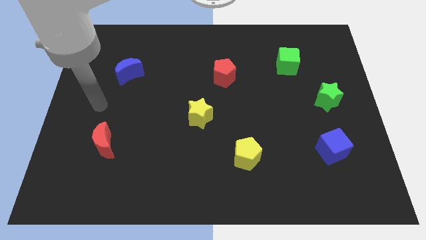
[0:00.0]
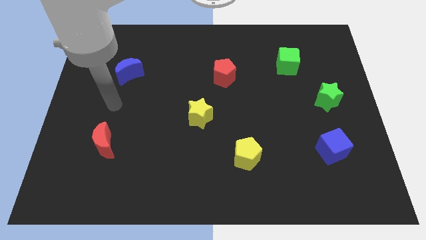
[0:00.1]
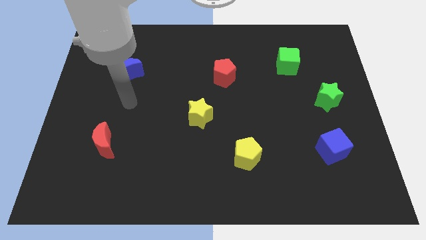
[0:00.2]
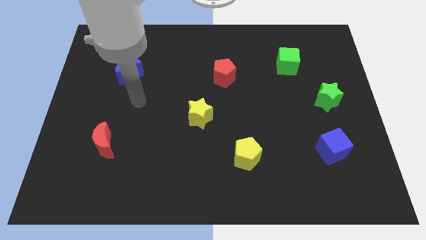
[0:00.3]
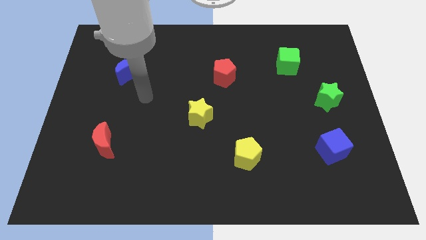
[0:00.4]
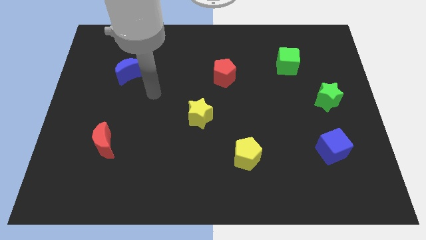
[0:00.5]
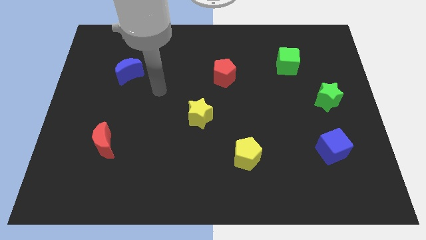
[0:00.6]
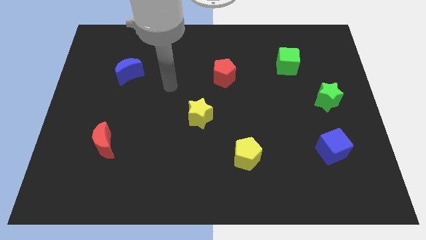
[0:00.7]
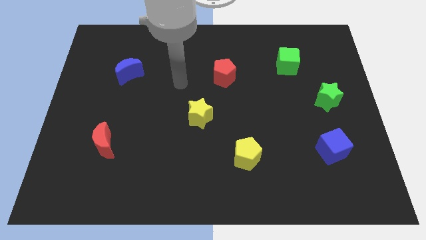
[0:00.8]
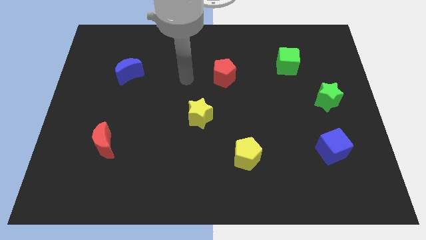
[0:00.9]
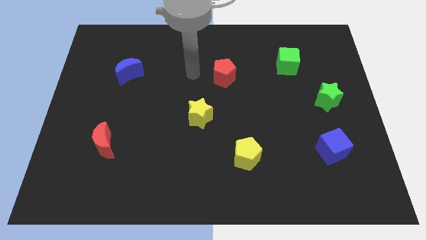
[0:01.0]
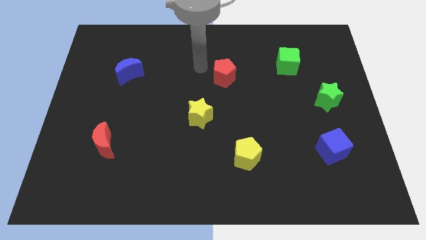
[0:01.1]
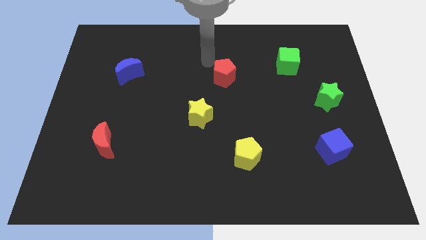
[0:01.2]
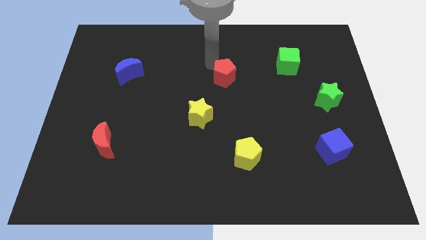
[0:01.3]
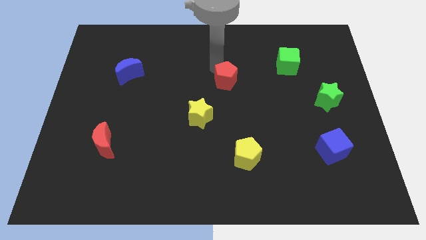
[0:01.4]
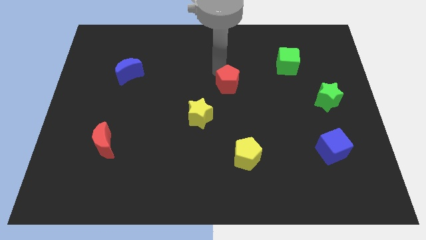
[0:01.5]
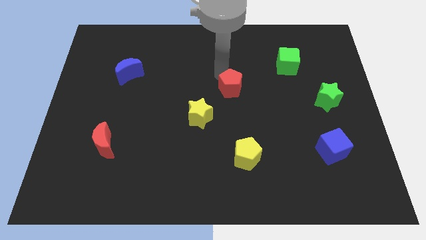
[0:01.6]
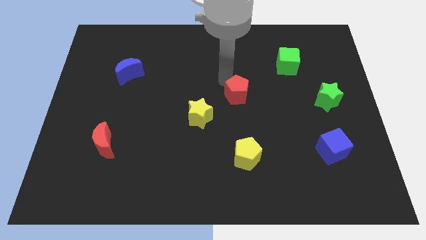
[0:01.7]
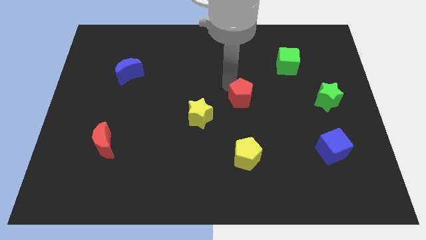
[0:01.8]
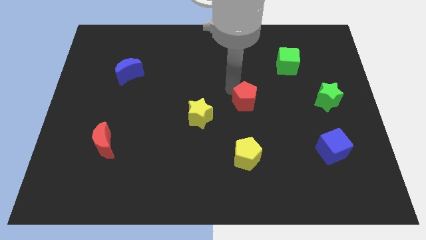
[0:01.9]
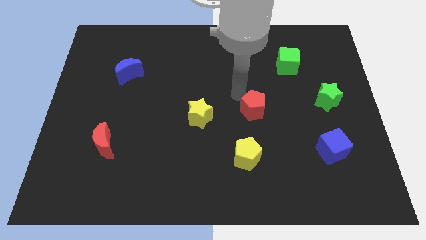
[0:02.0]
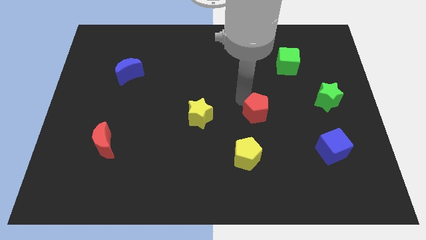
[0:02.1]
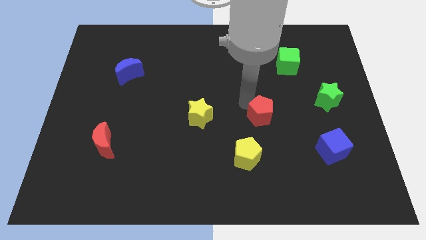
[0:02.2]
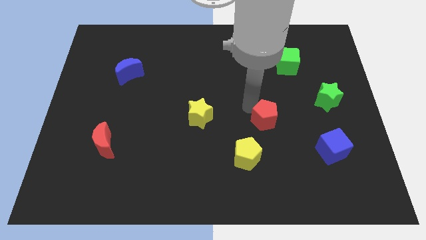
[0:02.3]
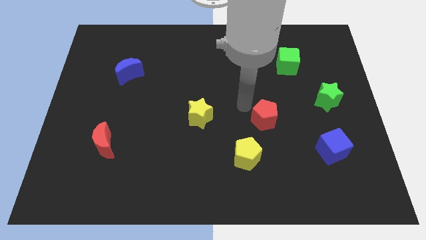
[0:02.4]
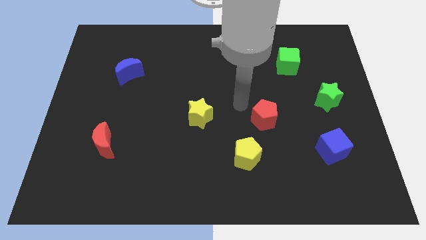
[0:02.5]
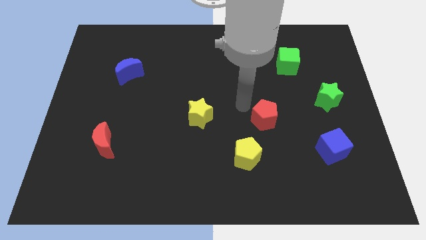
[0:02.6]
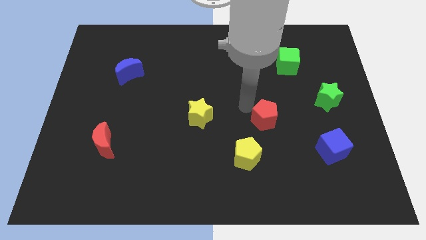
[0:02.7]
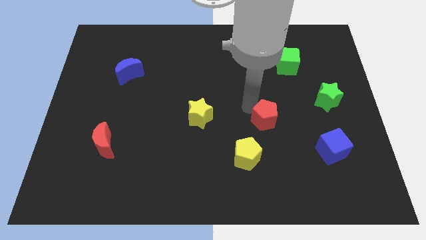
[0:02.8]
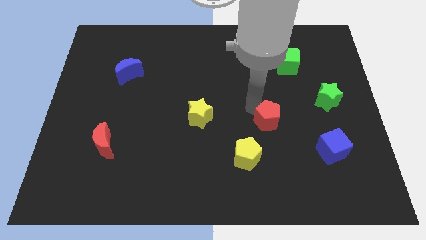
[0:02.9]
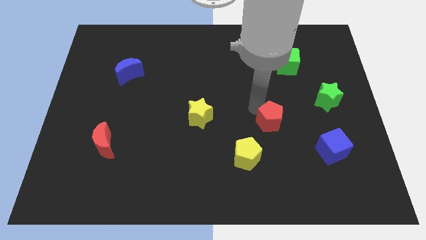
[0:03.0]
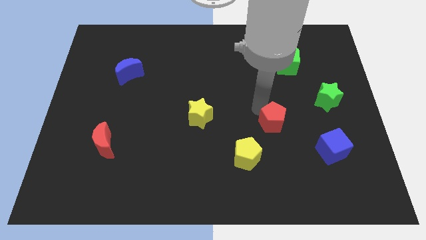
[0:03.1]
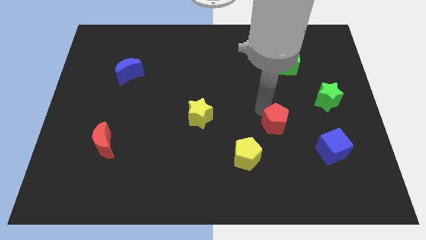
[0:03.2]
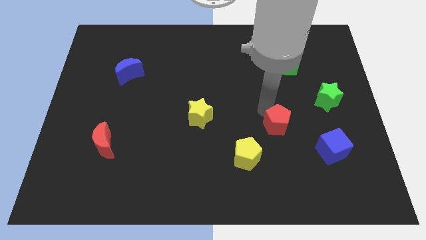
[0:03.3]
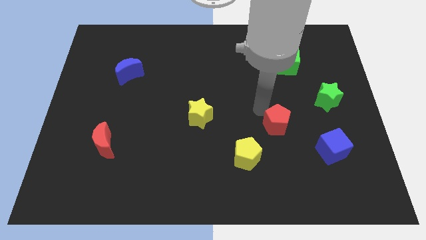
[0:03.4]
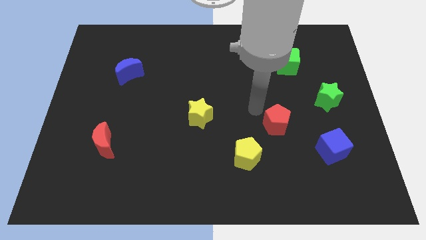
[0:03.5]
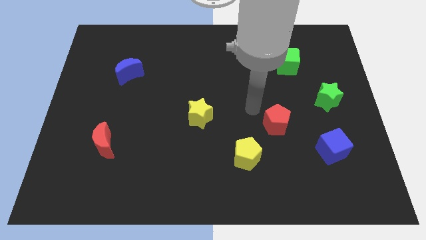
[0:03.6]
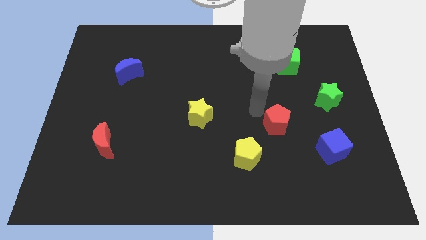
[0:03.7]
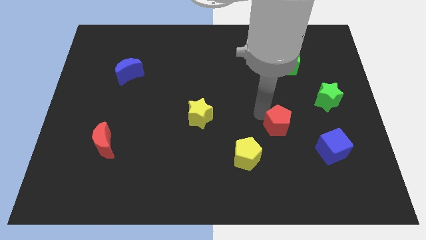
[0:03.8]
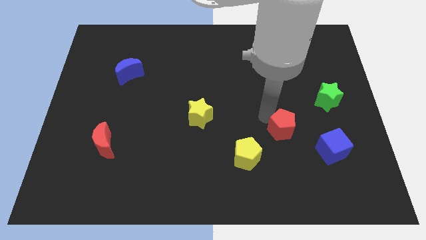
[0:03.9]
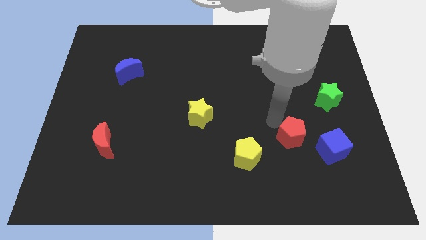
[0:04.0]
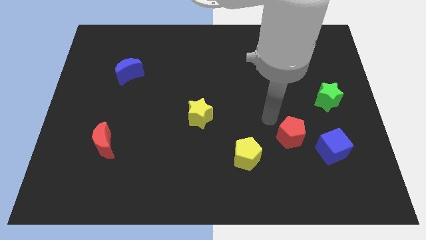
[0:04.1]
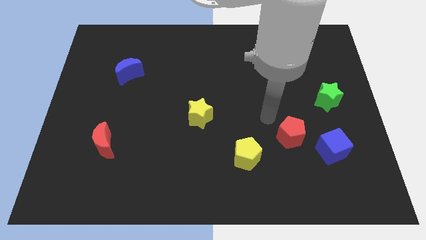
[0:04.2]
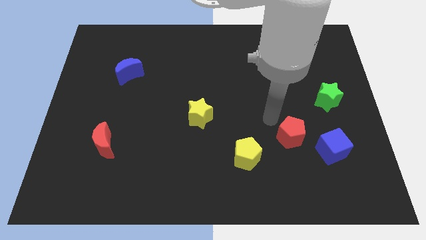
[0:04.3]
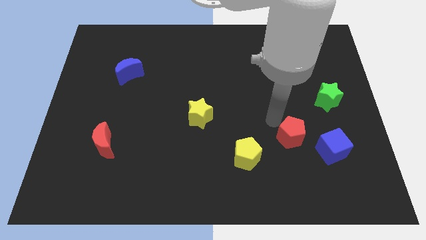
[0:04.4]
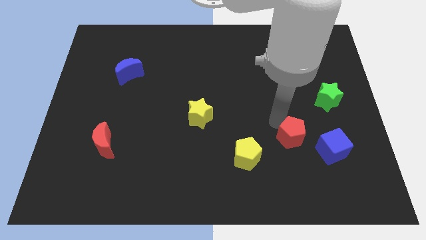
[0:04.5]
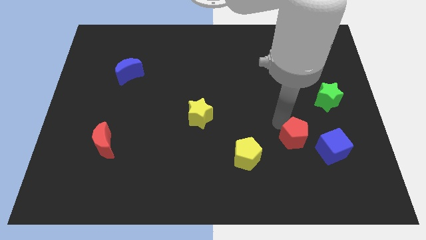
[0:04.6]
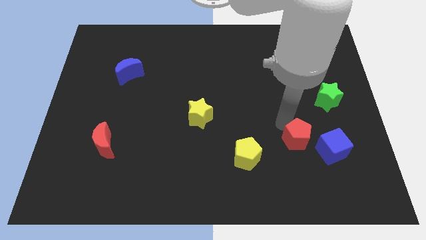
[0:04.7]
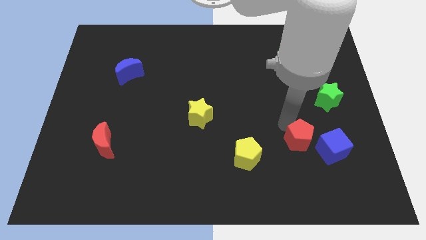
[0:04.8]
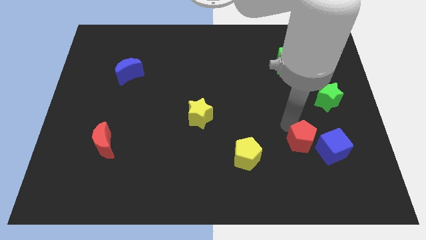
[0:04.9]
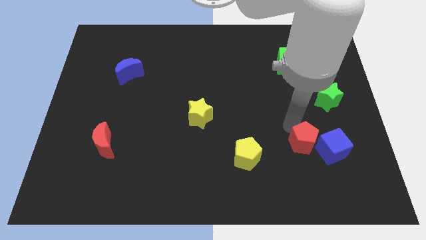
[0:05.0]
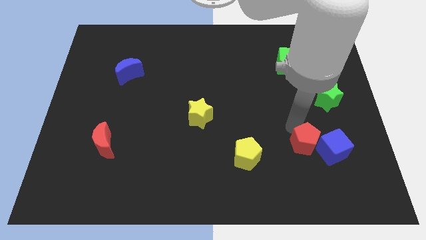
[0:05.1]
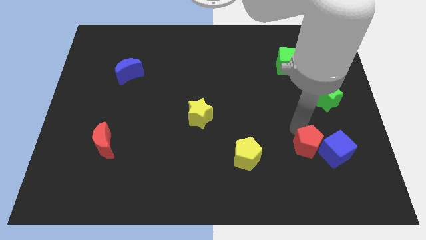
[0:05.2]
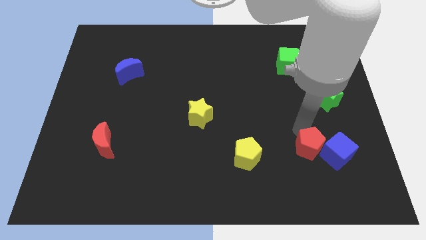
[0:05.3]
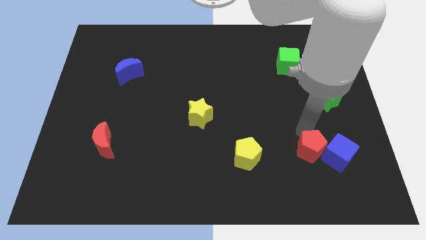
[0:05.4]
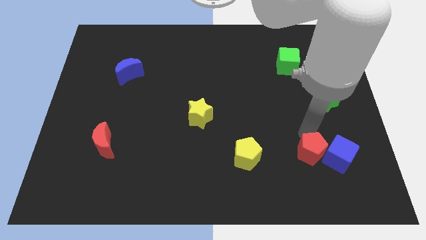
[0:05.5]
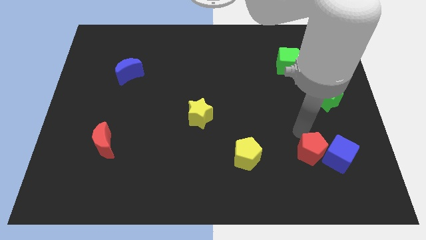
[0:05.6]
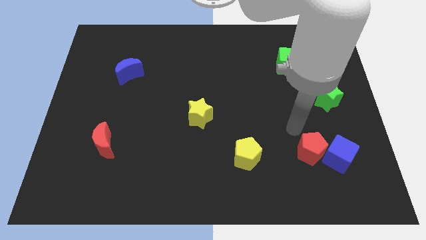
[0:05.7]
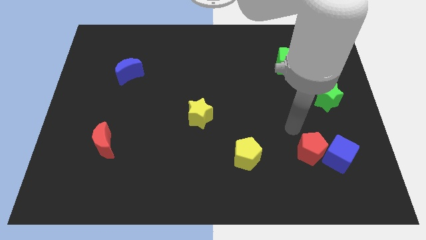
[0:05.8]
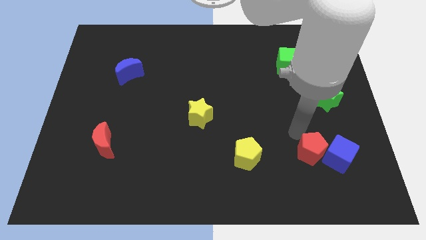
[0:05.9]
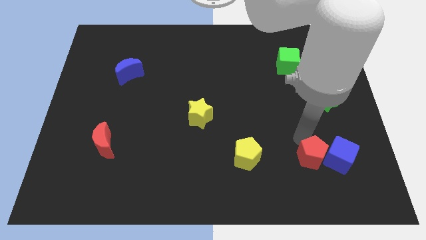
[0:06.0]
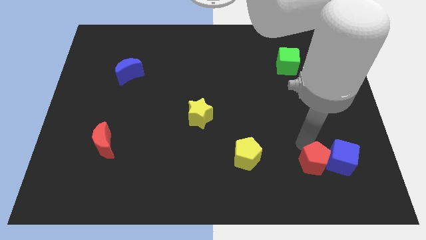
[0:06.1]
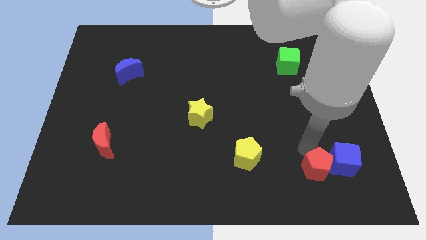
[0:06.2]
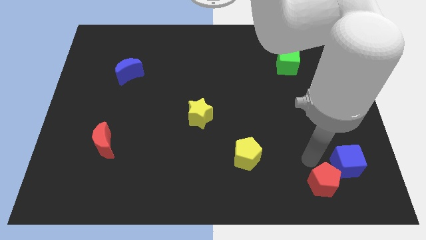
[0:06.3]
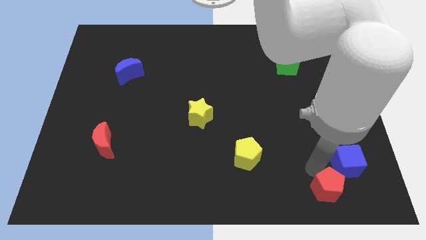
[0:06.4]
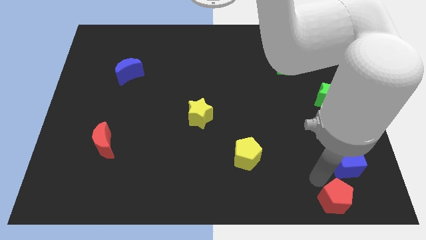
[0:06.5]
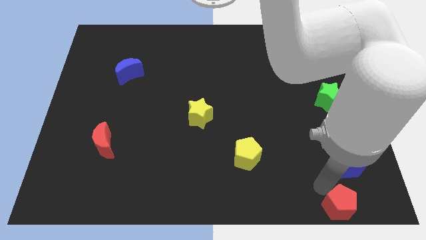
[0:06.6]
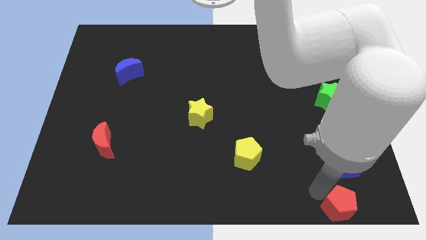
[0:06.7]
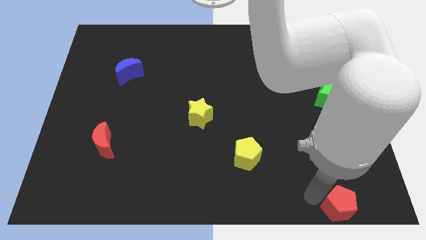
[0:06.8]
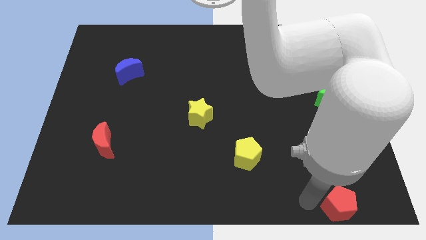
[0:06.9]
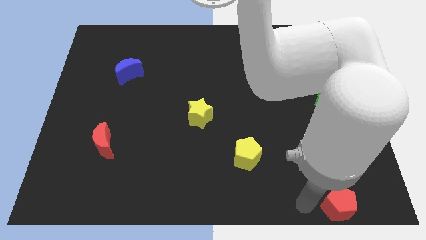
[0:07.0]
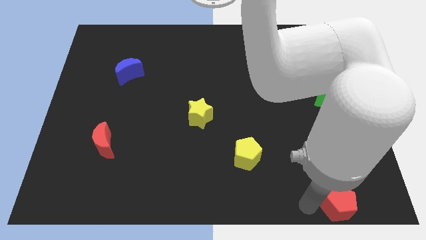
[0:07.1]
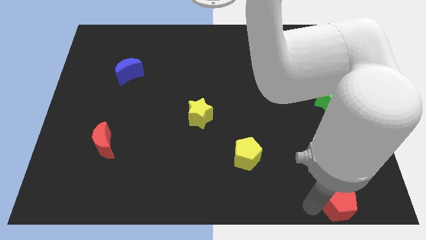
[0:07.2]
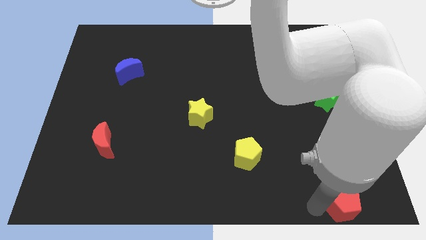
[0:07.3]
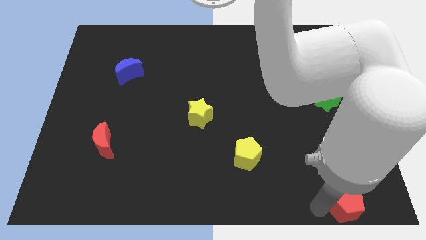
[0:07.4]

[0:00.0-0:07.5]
put the red pentagon to the bottom right of the board
